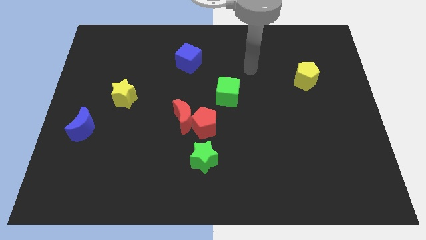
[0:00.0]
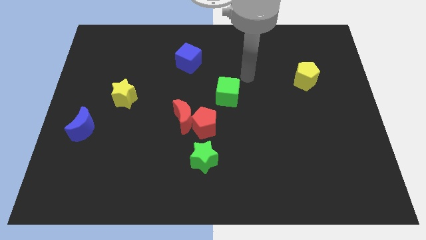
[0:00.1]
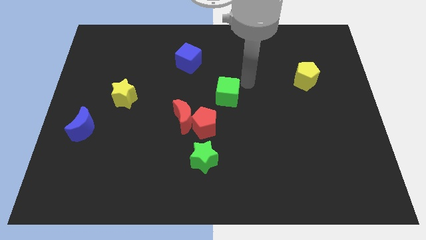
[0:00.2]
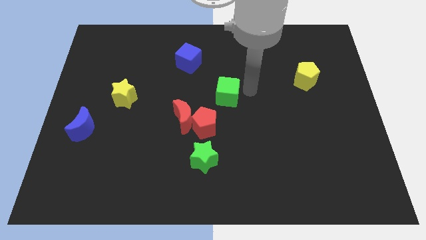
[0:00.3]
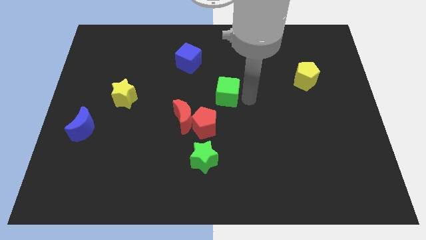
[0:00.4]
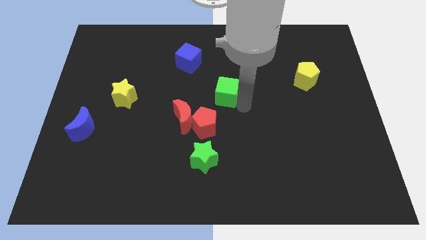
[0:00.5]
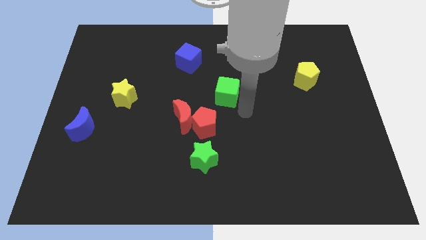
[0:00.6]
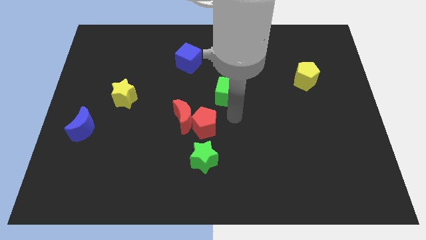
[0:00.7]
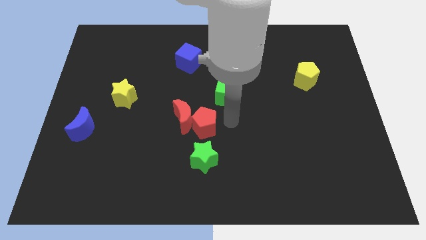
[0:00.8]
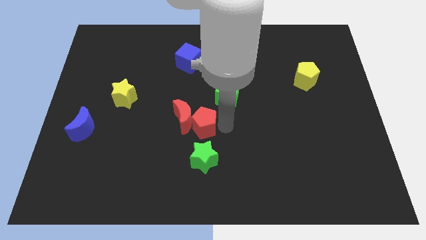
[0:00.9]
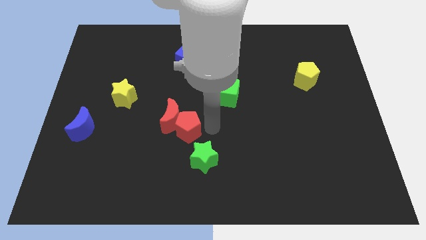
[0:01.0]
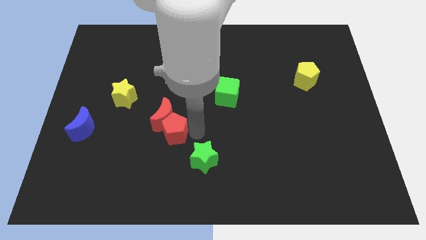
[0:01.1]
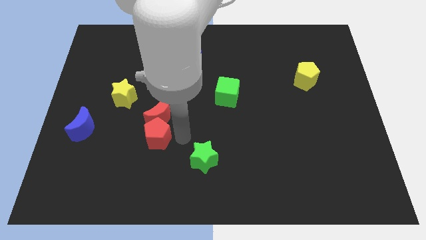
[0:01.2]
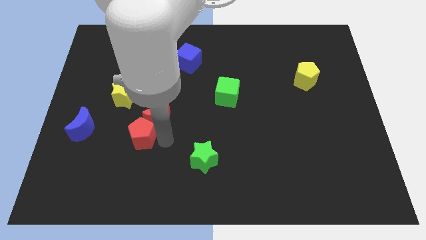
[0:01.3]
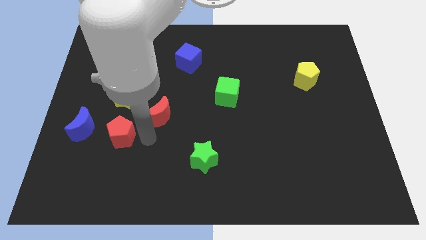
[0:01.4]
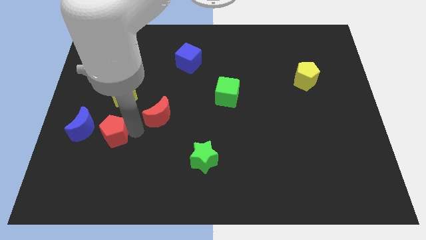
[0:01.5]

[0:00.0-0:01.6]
separate the red moon from the red pentagon

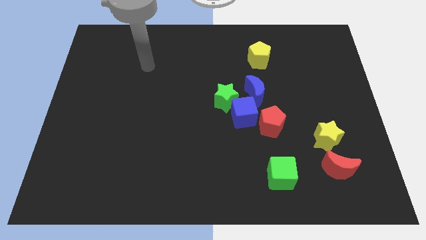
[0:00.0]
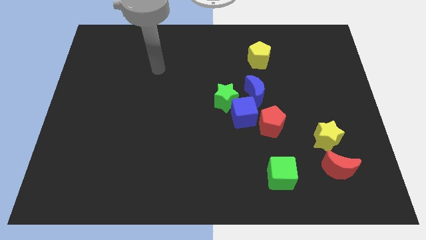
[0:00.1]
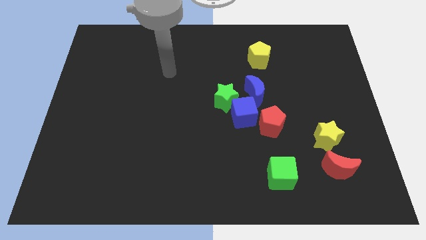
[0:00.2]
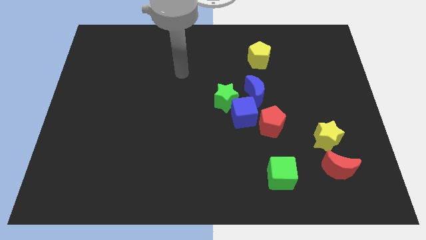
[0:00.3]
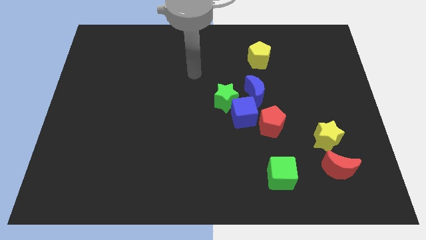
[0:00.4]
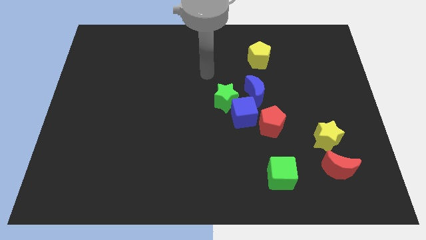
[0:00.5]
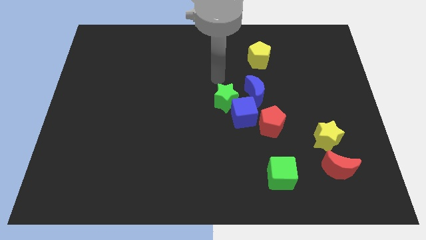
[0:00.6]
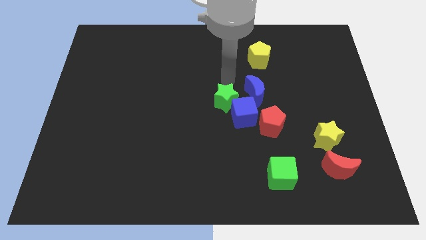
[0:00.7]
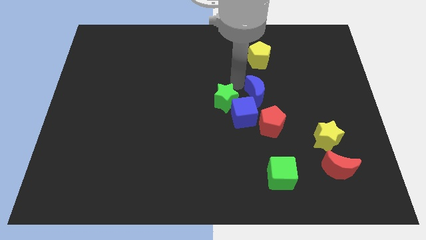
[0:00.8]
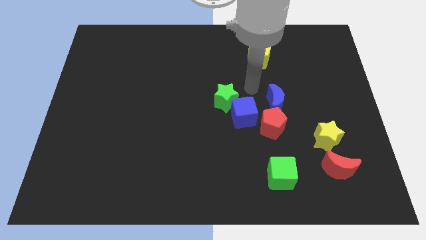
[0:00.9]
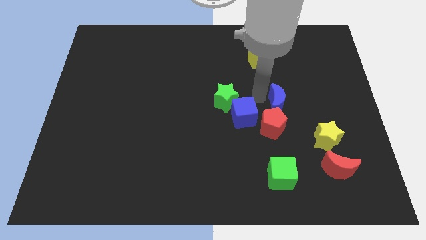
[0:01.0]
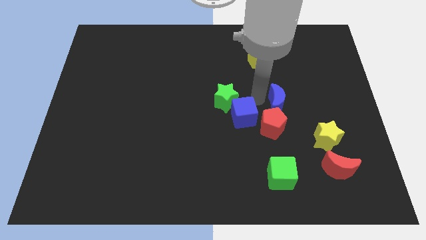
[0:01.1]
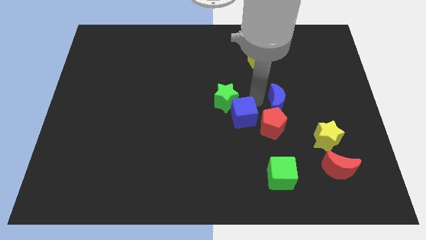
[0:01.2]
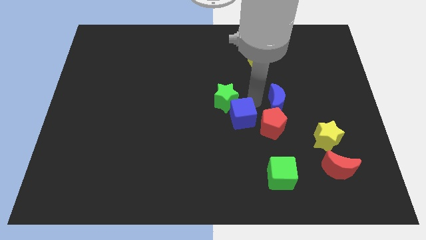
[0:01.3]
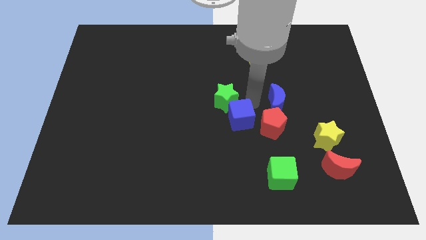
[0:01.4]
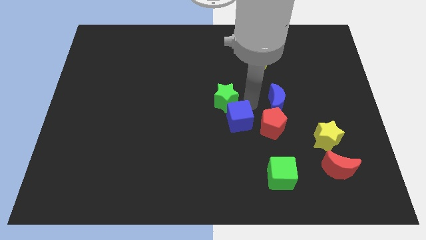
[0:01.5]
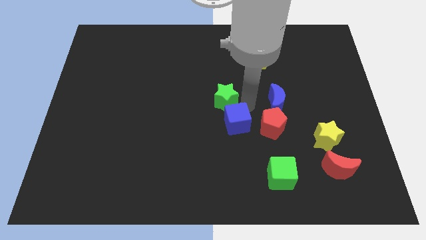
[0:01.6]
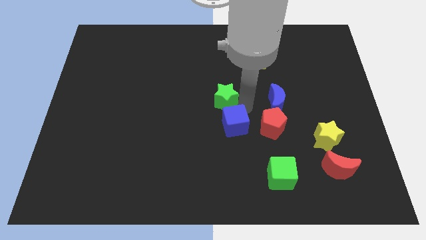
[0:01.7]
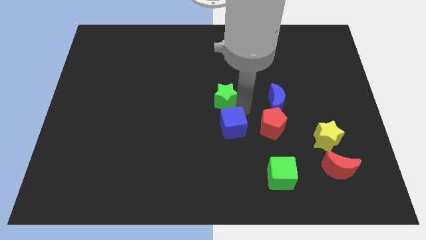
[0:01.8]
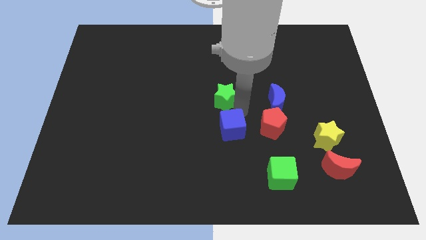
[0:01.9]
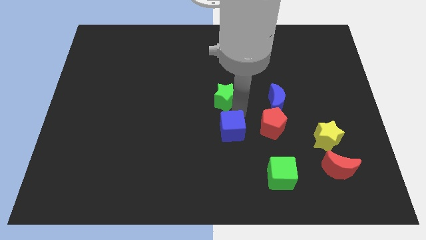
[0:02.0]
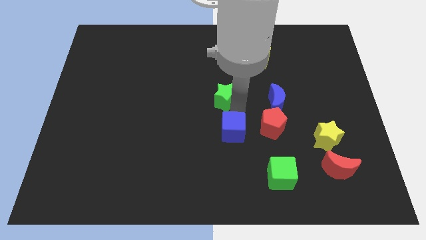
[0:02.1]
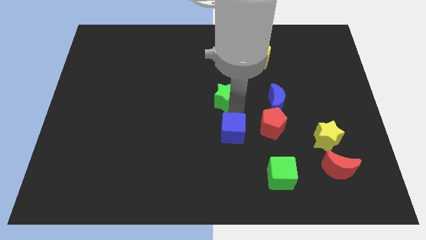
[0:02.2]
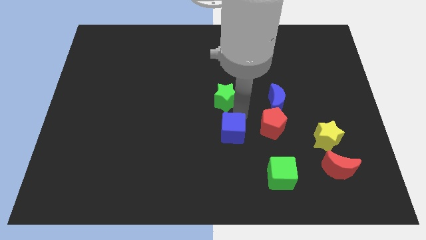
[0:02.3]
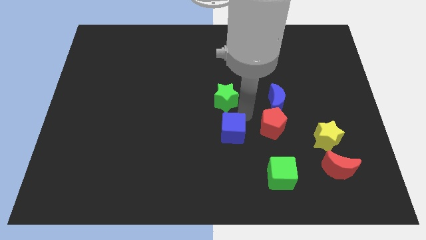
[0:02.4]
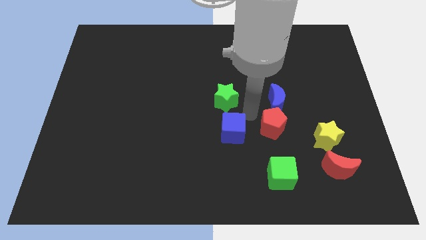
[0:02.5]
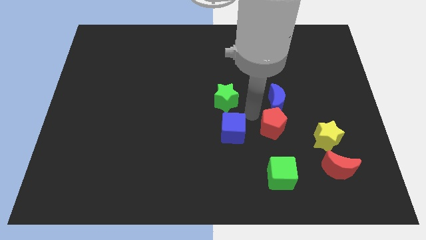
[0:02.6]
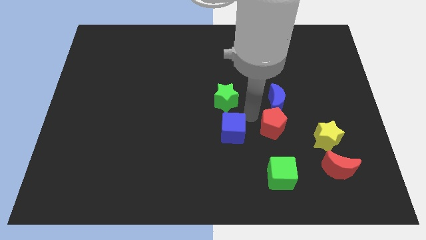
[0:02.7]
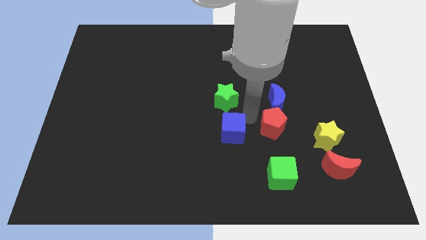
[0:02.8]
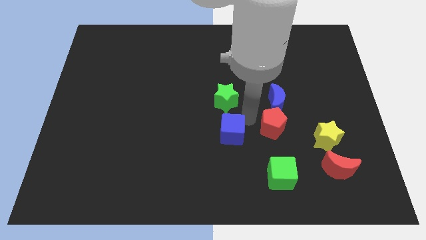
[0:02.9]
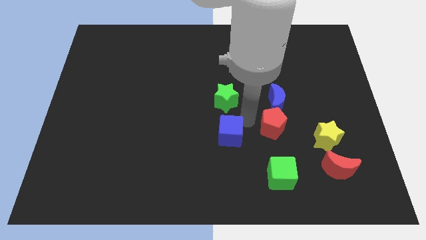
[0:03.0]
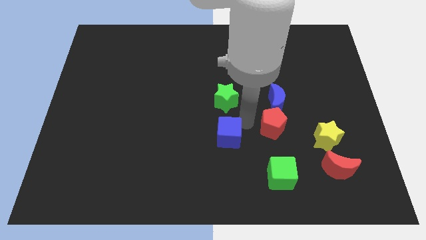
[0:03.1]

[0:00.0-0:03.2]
pull the blue cube apart from the group of blocks

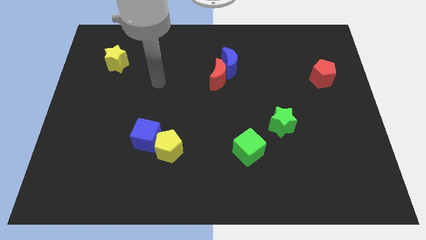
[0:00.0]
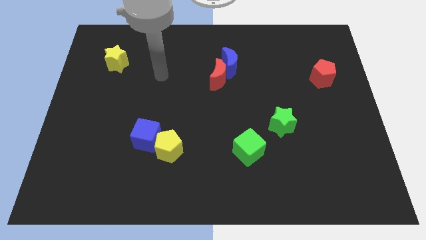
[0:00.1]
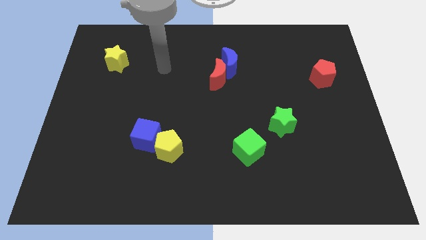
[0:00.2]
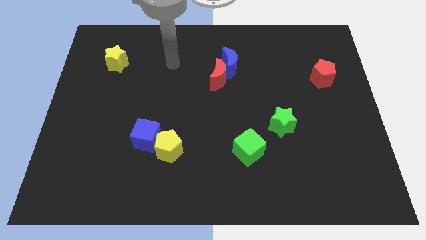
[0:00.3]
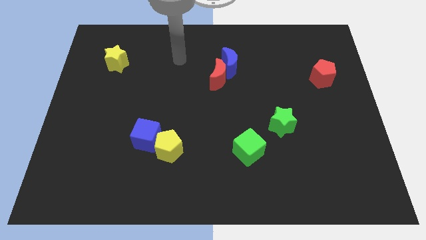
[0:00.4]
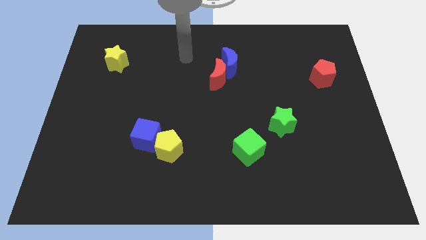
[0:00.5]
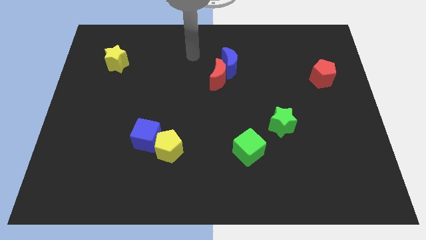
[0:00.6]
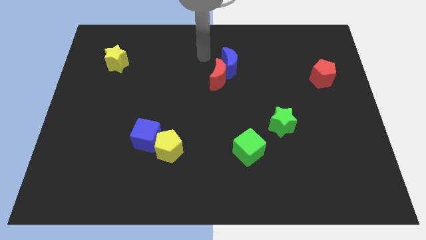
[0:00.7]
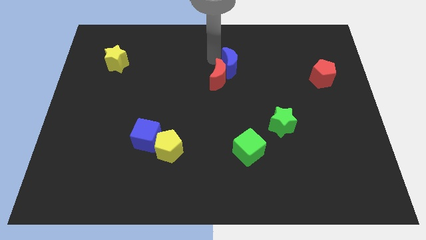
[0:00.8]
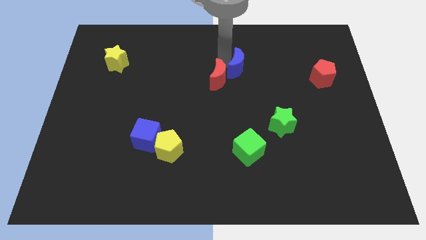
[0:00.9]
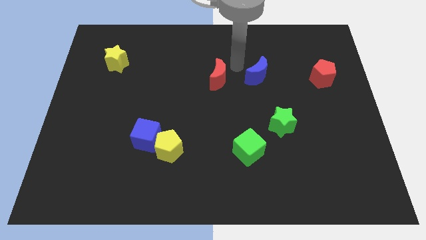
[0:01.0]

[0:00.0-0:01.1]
pull the red moon apart from the blue moon

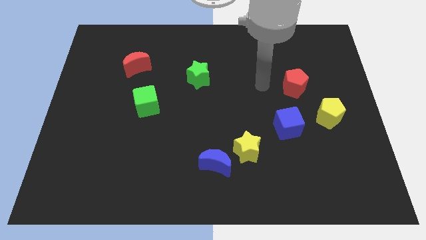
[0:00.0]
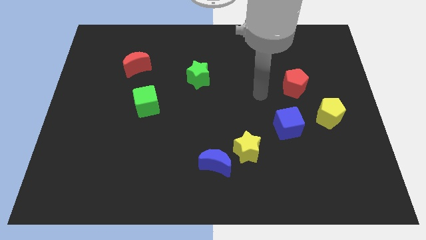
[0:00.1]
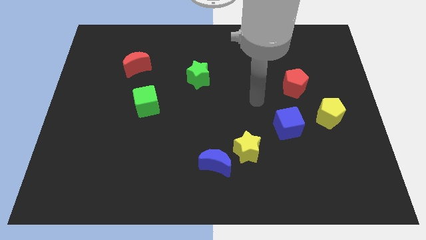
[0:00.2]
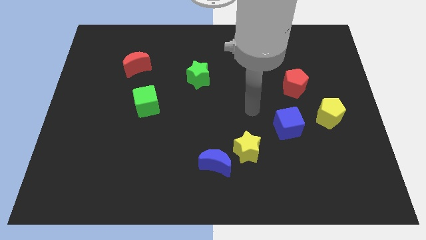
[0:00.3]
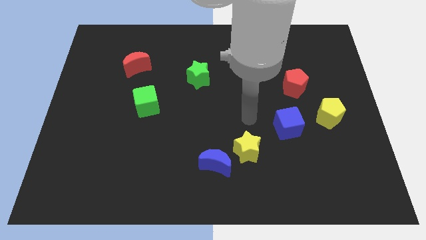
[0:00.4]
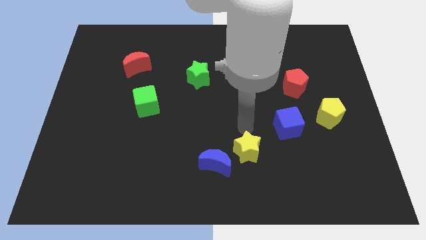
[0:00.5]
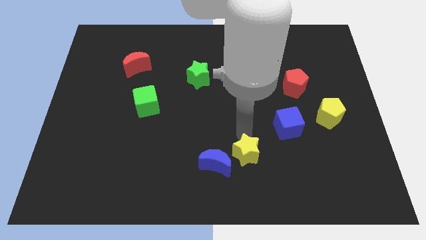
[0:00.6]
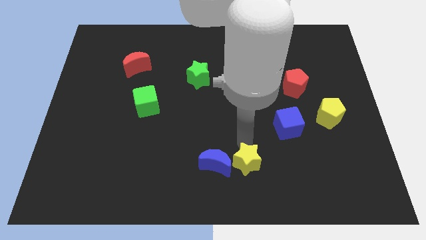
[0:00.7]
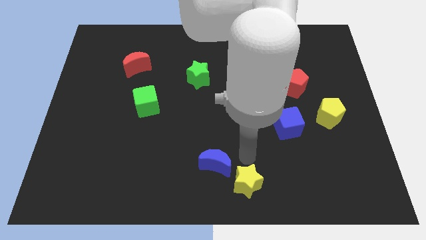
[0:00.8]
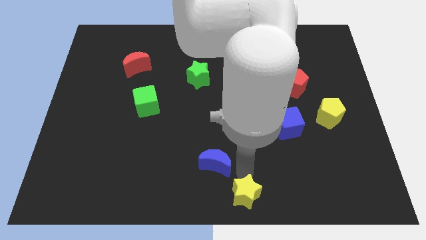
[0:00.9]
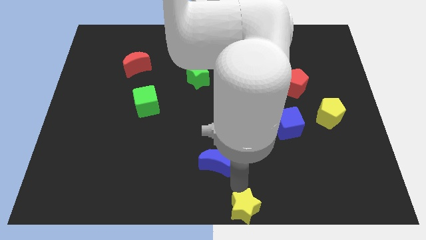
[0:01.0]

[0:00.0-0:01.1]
pull the blue moon apart from the yellow star

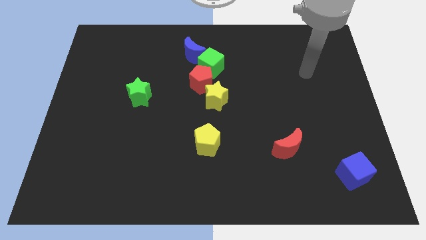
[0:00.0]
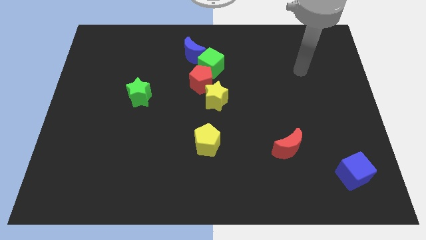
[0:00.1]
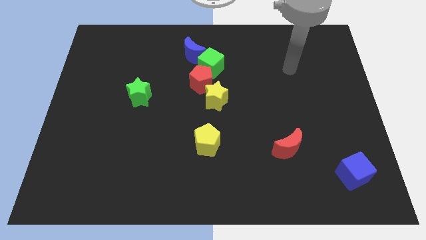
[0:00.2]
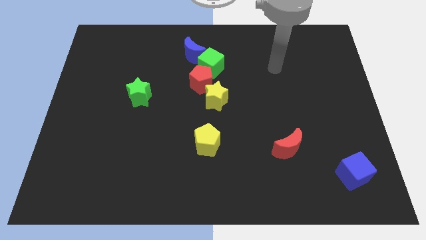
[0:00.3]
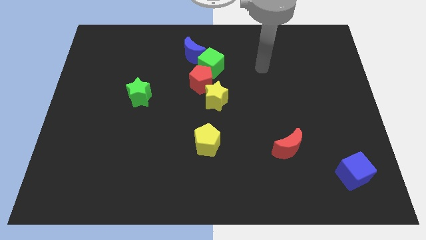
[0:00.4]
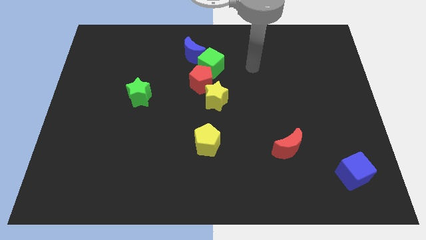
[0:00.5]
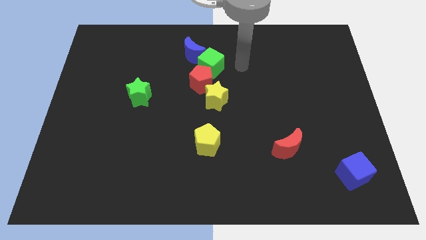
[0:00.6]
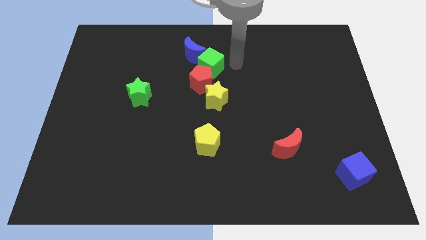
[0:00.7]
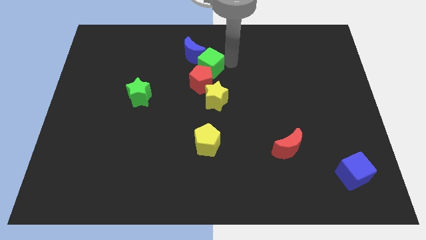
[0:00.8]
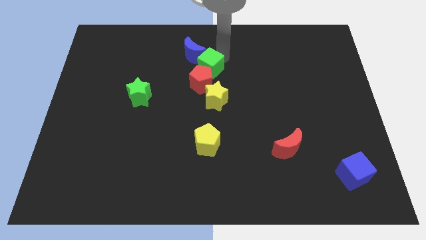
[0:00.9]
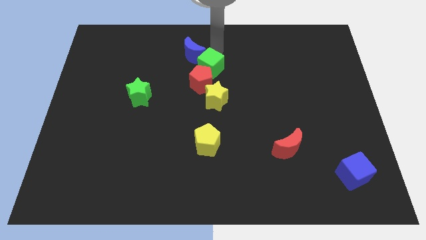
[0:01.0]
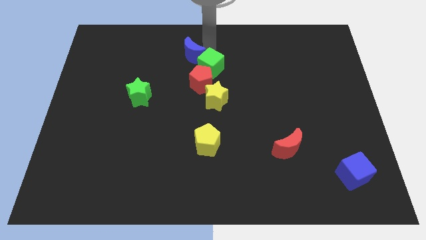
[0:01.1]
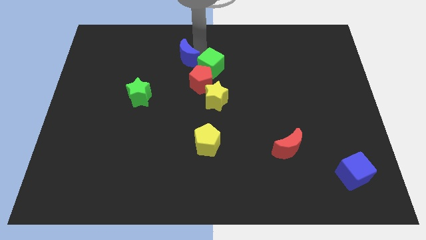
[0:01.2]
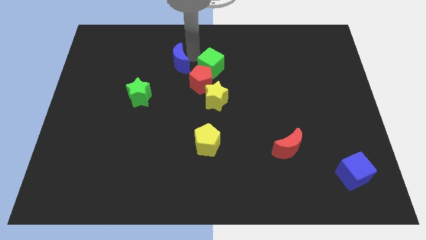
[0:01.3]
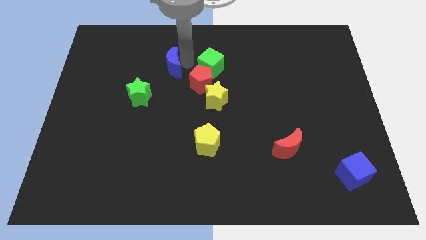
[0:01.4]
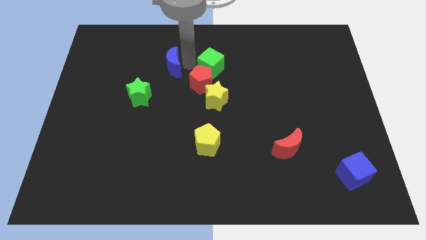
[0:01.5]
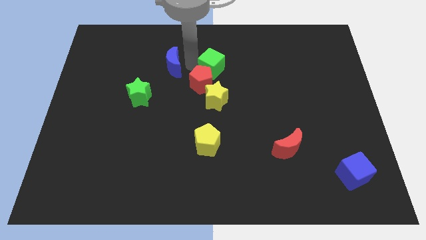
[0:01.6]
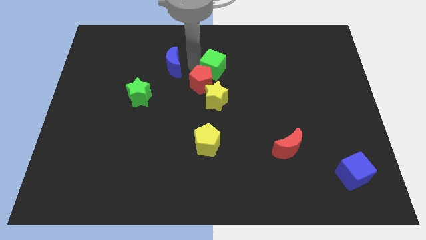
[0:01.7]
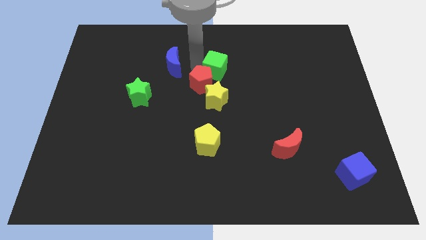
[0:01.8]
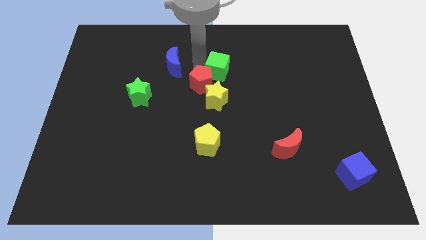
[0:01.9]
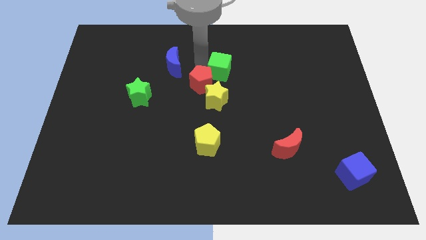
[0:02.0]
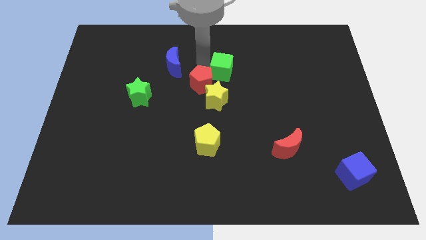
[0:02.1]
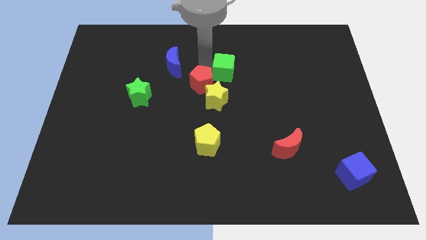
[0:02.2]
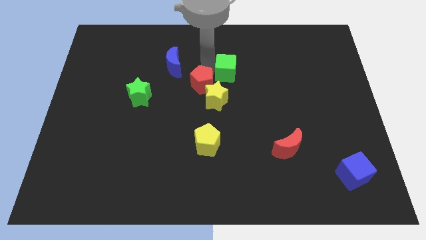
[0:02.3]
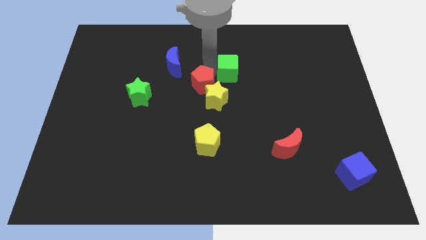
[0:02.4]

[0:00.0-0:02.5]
pull the green cube apart from the red pentagon and blue moon
